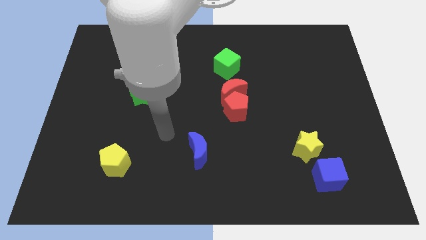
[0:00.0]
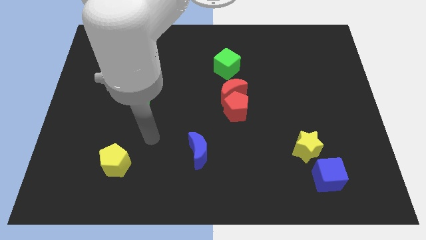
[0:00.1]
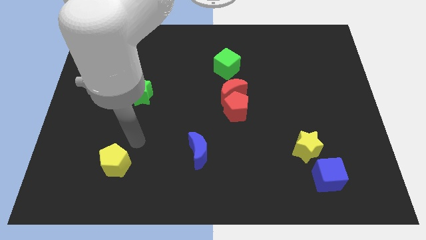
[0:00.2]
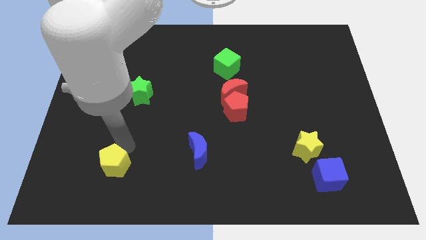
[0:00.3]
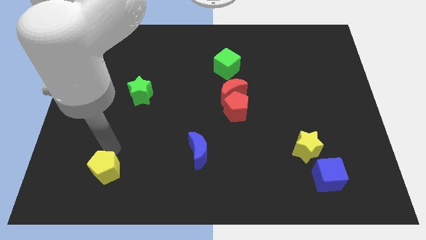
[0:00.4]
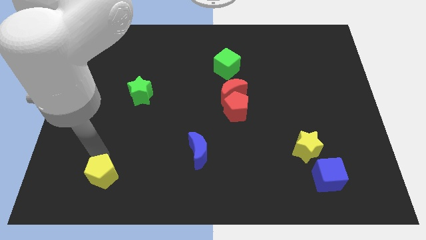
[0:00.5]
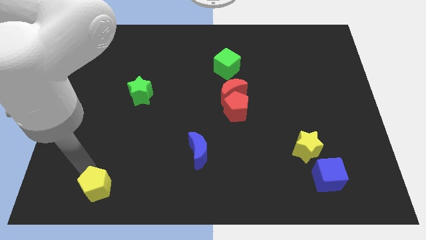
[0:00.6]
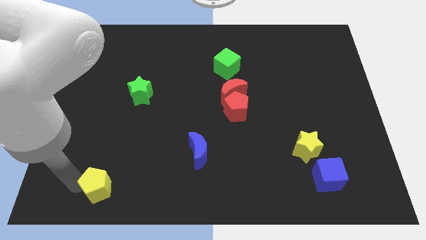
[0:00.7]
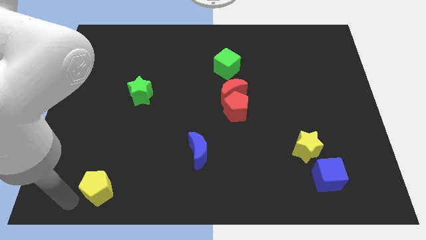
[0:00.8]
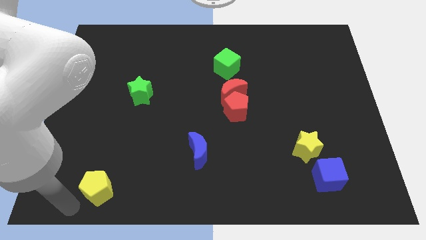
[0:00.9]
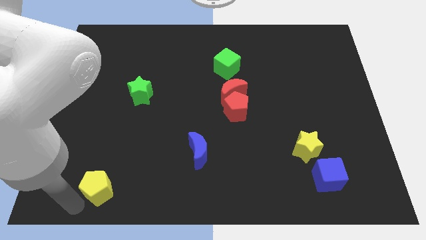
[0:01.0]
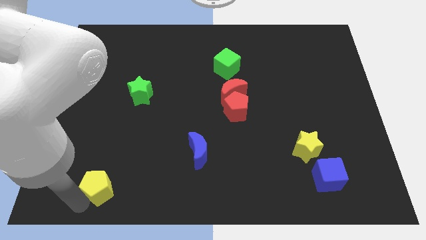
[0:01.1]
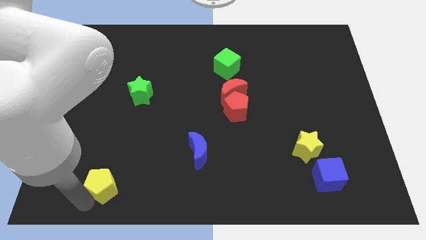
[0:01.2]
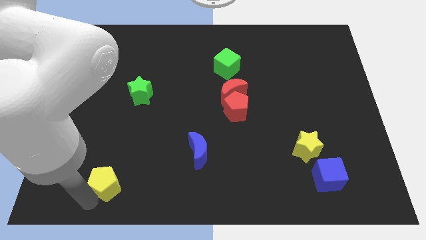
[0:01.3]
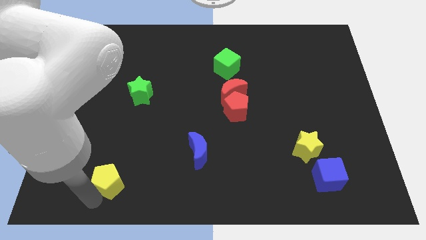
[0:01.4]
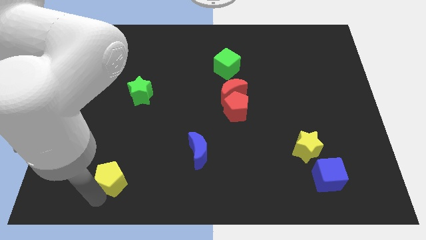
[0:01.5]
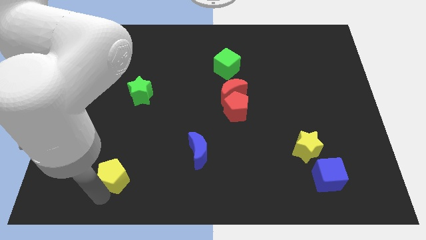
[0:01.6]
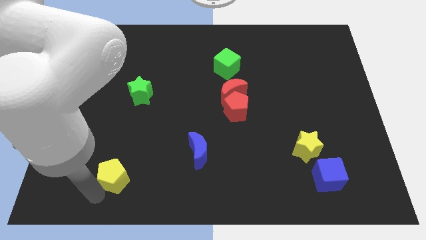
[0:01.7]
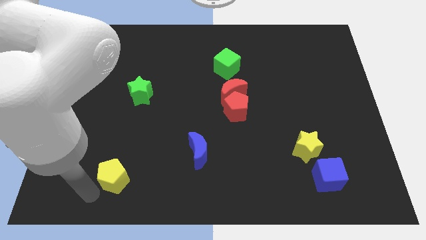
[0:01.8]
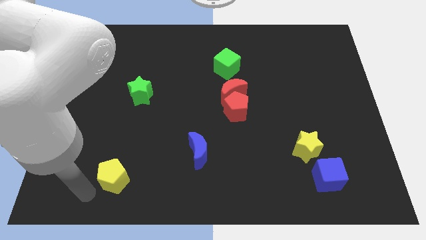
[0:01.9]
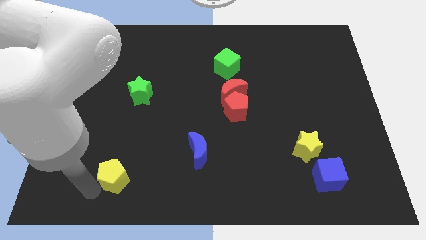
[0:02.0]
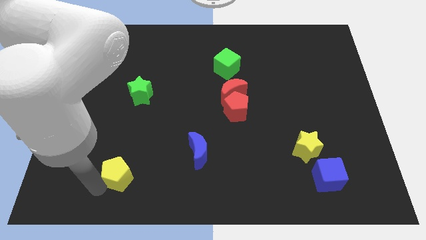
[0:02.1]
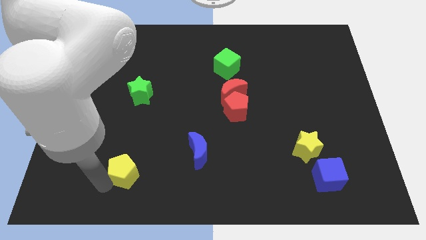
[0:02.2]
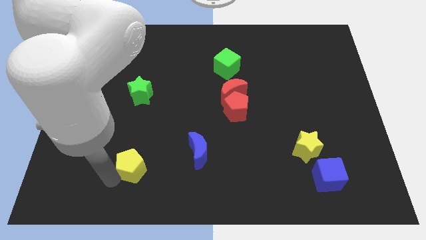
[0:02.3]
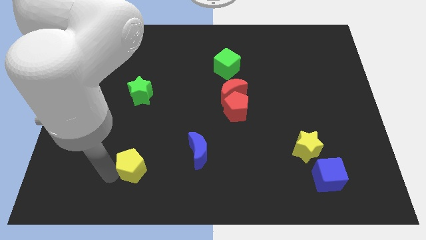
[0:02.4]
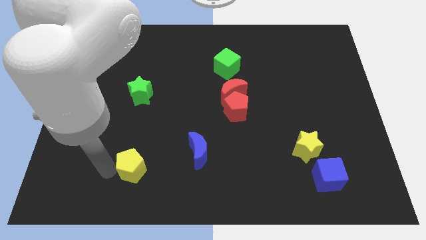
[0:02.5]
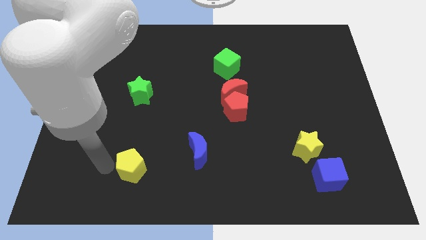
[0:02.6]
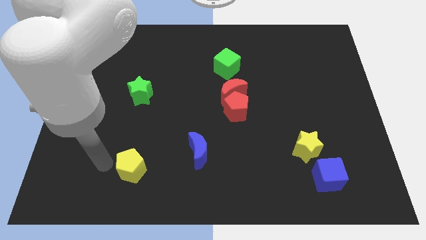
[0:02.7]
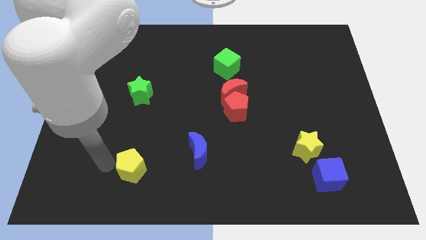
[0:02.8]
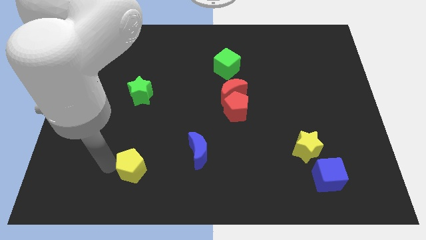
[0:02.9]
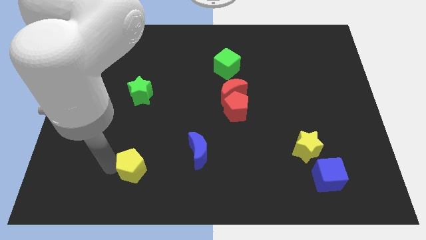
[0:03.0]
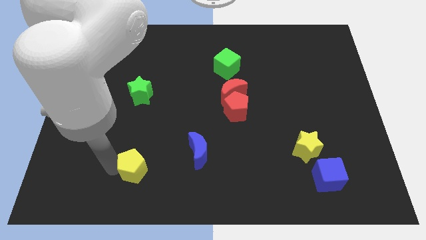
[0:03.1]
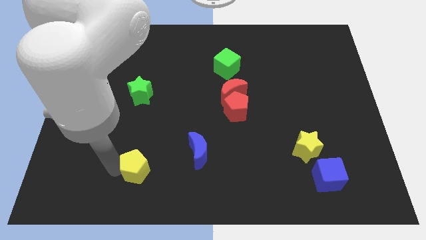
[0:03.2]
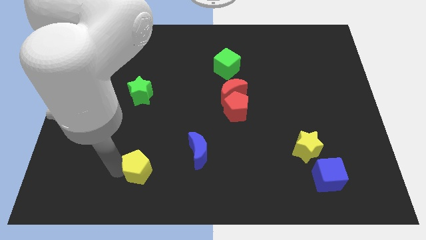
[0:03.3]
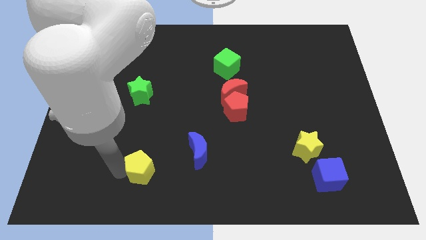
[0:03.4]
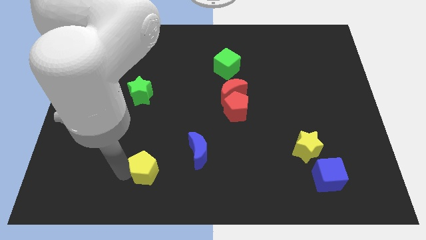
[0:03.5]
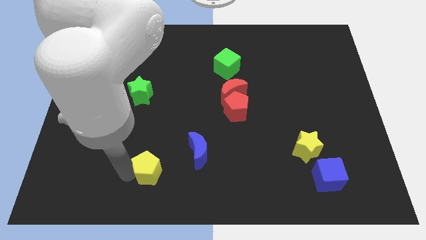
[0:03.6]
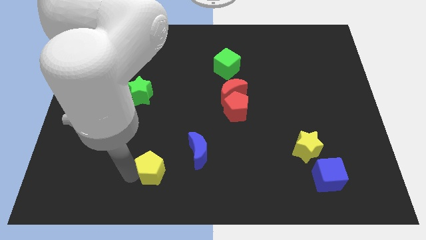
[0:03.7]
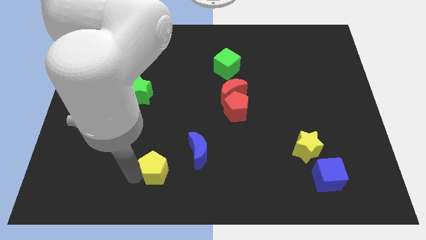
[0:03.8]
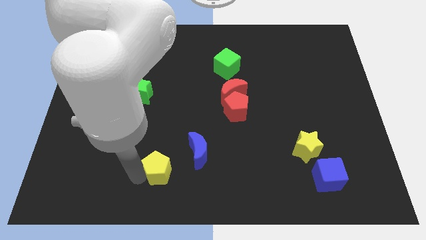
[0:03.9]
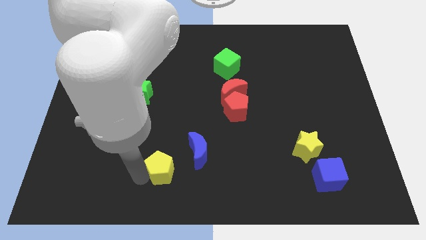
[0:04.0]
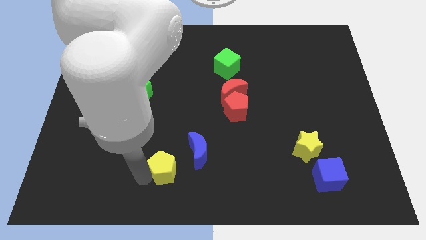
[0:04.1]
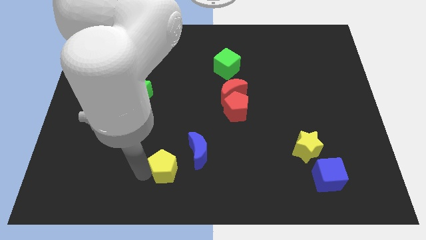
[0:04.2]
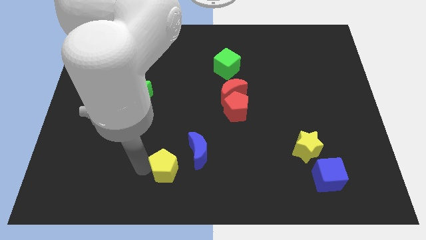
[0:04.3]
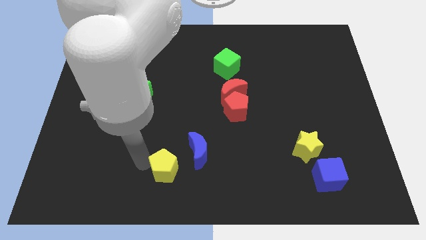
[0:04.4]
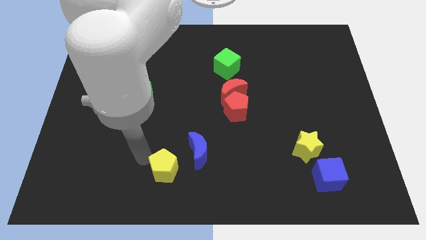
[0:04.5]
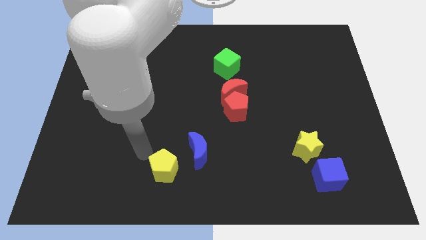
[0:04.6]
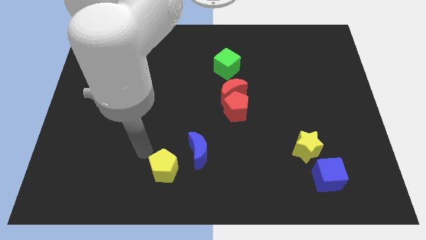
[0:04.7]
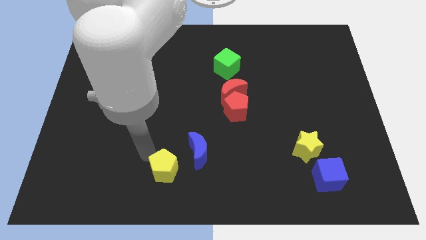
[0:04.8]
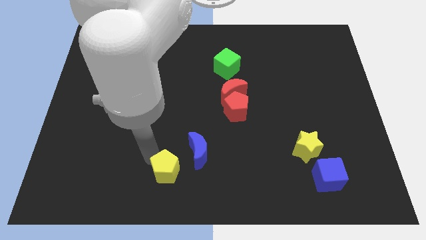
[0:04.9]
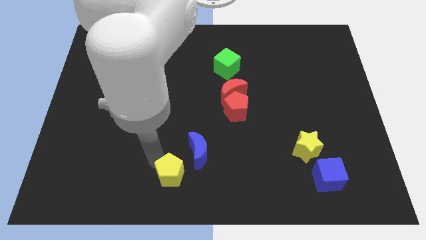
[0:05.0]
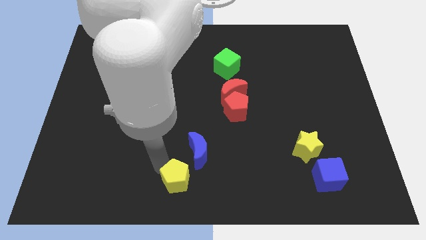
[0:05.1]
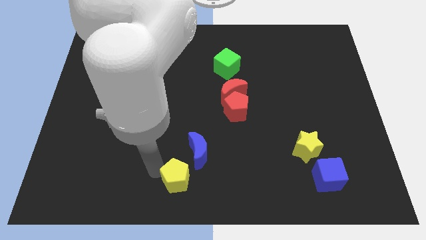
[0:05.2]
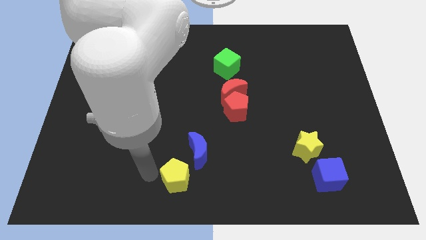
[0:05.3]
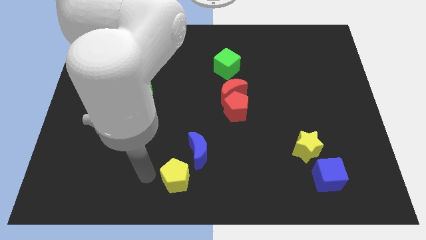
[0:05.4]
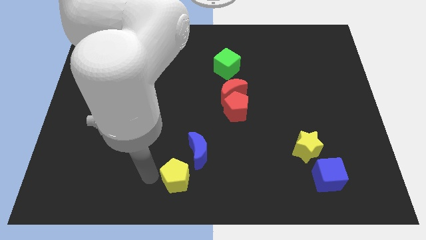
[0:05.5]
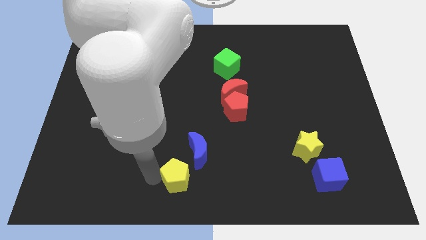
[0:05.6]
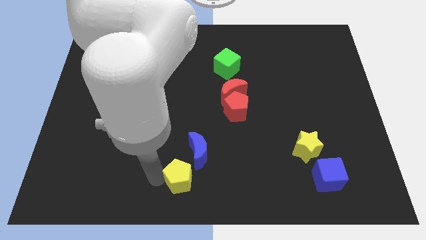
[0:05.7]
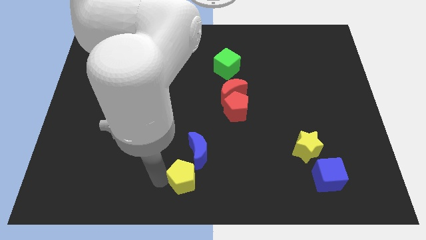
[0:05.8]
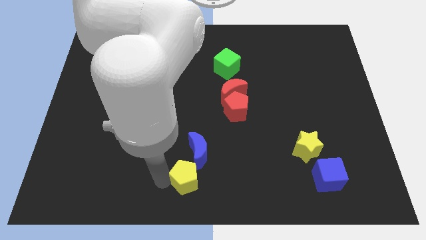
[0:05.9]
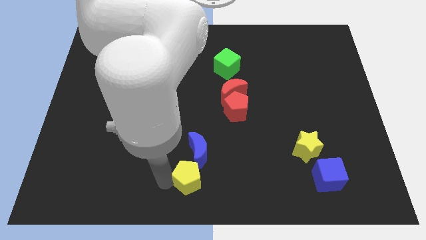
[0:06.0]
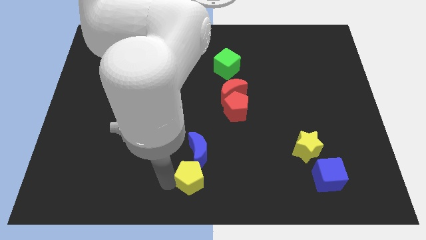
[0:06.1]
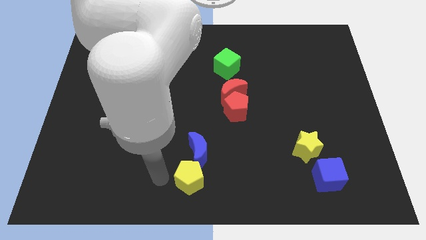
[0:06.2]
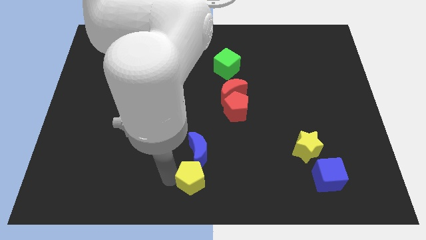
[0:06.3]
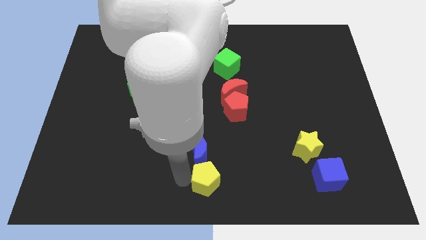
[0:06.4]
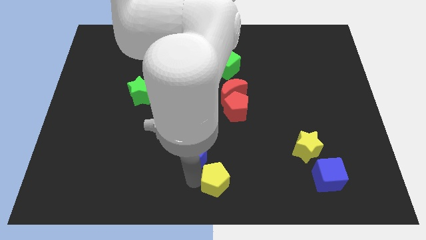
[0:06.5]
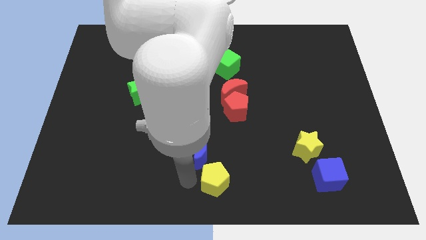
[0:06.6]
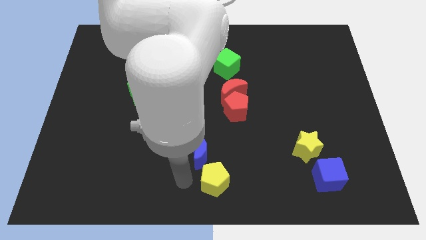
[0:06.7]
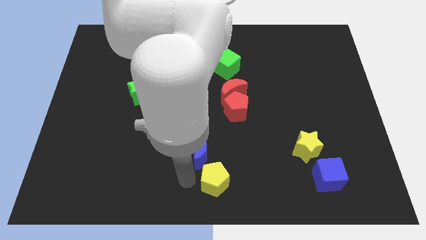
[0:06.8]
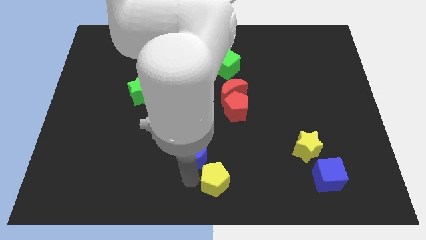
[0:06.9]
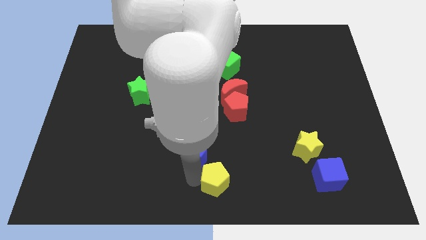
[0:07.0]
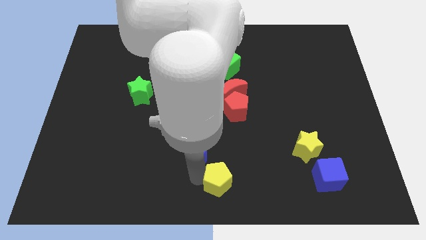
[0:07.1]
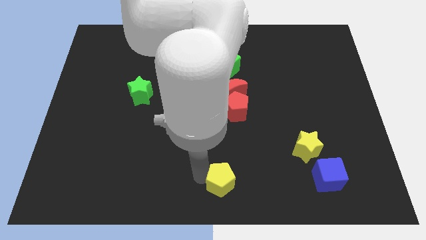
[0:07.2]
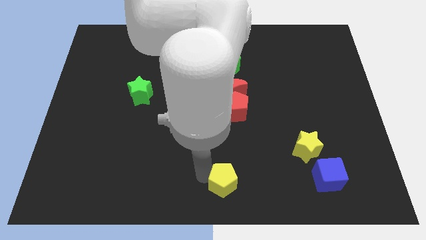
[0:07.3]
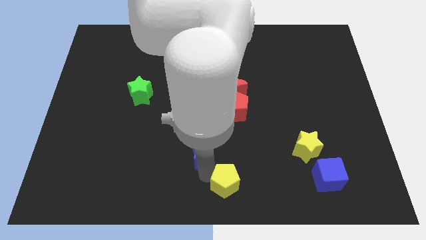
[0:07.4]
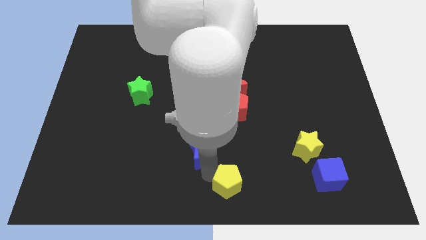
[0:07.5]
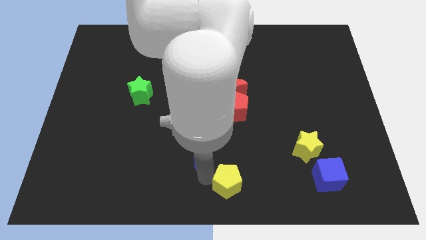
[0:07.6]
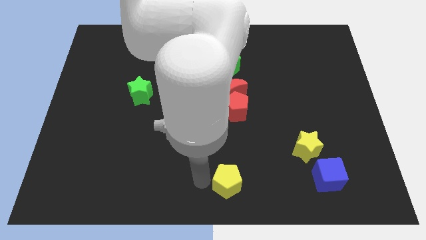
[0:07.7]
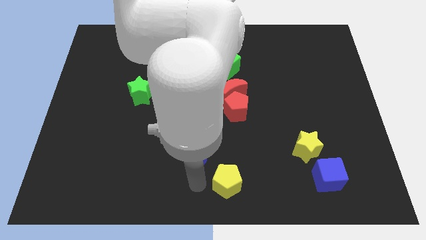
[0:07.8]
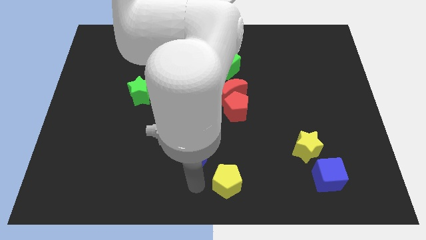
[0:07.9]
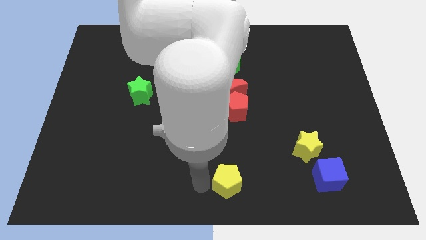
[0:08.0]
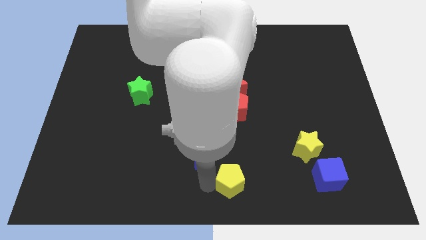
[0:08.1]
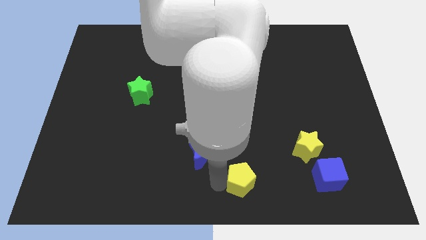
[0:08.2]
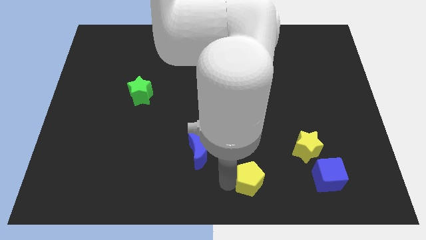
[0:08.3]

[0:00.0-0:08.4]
push the yellow pentagon left of the blue cube
